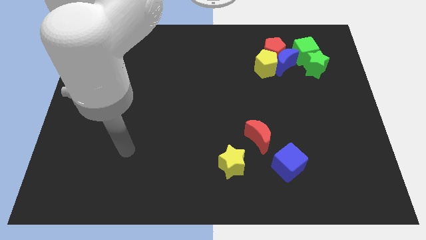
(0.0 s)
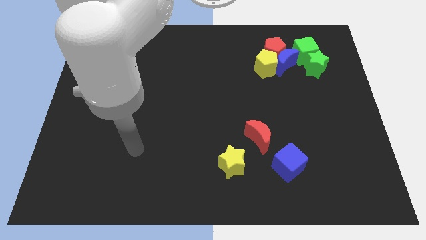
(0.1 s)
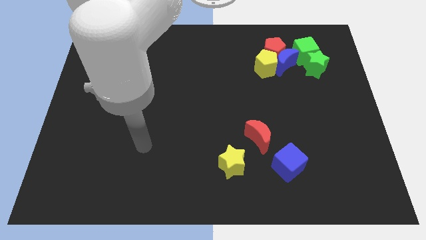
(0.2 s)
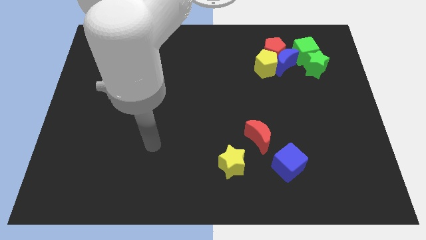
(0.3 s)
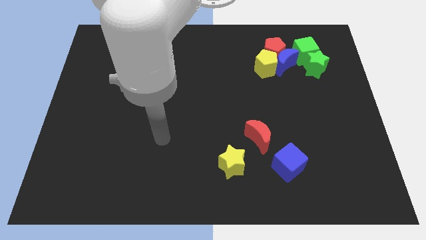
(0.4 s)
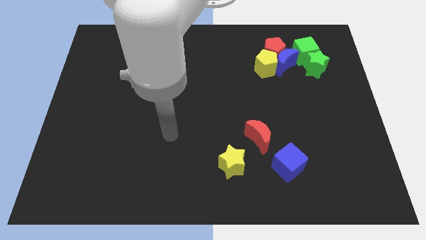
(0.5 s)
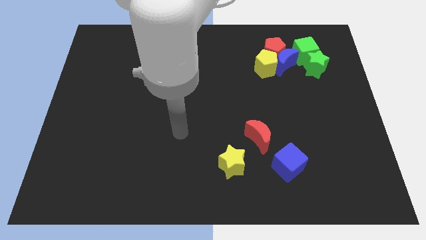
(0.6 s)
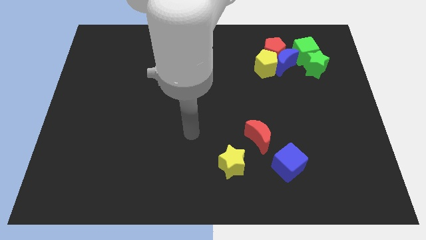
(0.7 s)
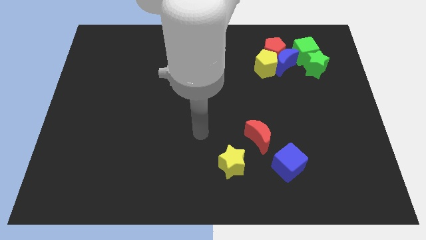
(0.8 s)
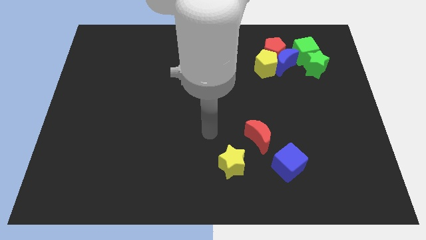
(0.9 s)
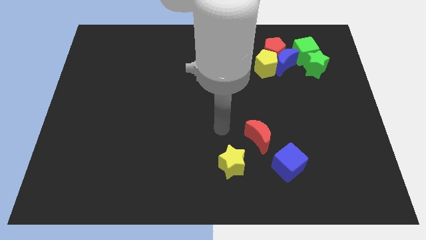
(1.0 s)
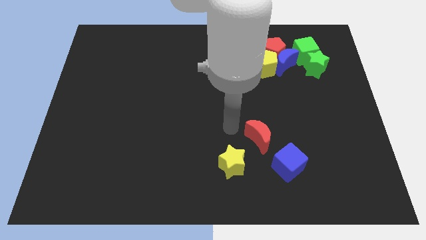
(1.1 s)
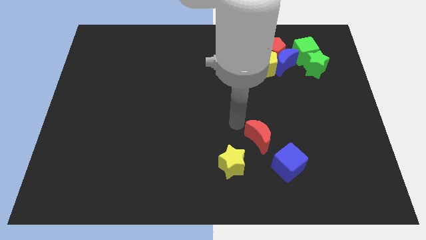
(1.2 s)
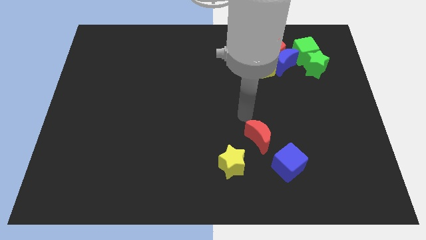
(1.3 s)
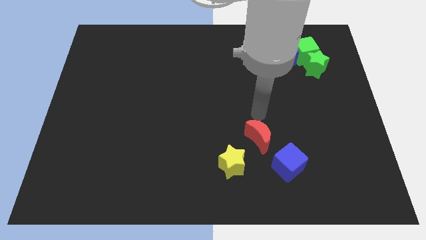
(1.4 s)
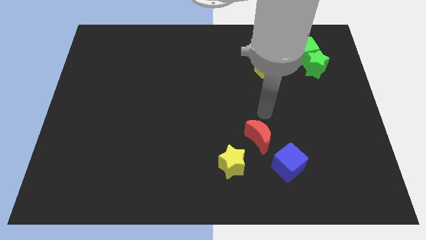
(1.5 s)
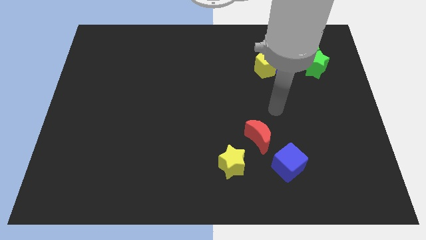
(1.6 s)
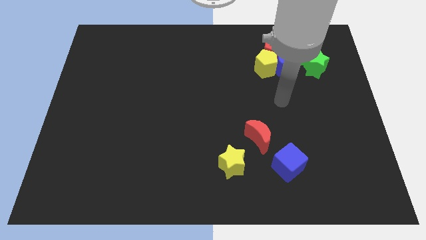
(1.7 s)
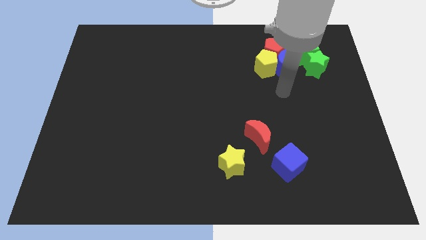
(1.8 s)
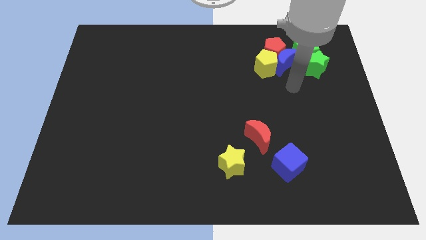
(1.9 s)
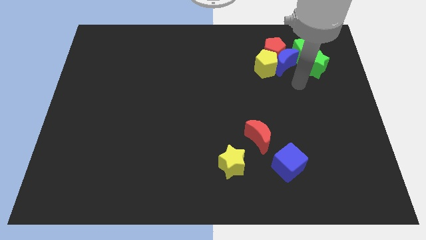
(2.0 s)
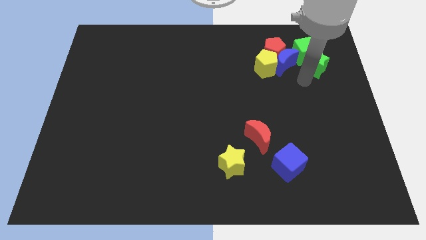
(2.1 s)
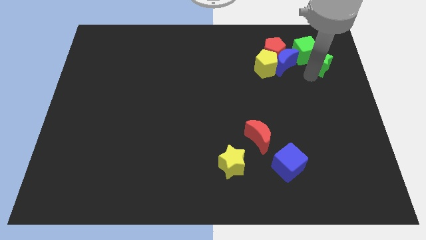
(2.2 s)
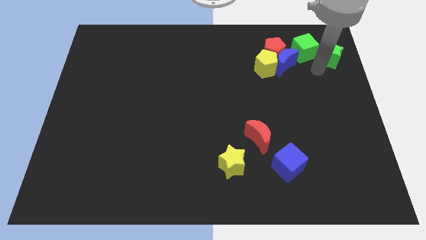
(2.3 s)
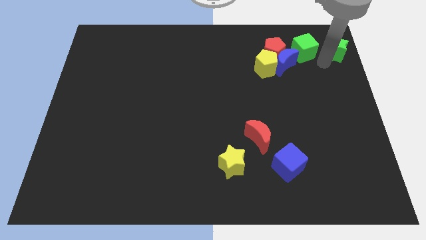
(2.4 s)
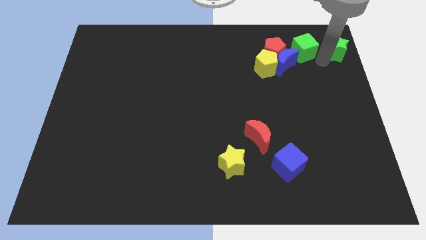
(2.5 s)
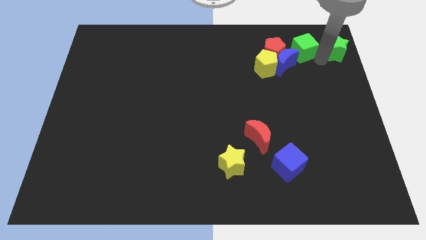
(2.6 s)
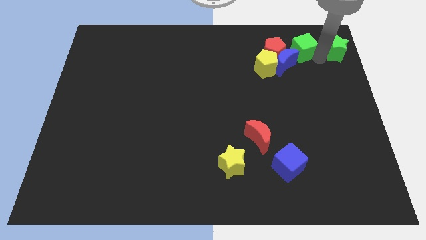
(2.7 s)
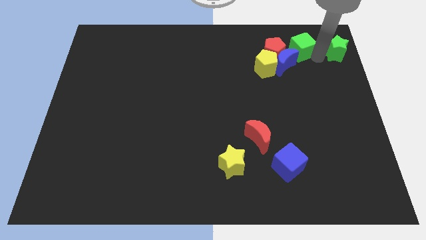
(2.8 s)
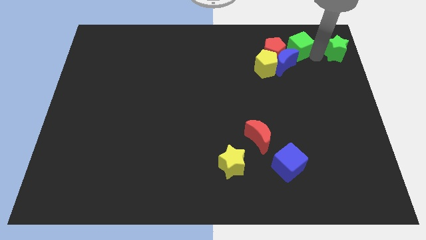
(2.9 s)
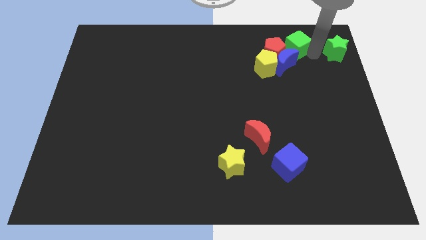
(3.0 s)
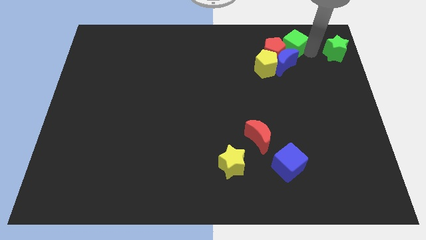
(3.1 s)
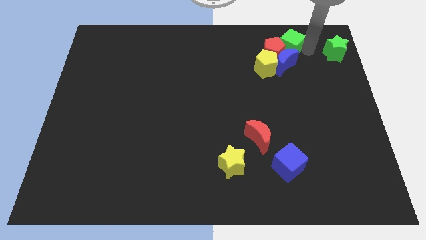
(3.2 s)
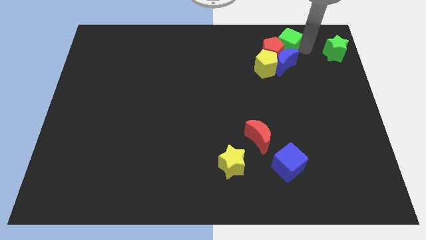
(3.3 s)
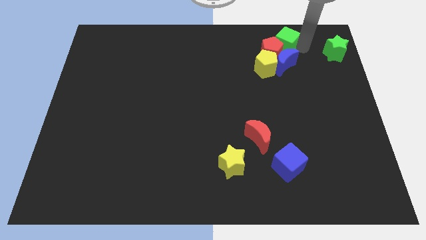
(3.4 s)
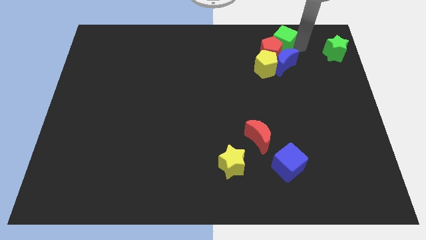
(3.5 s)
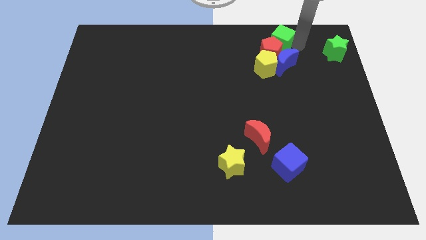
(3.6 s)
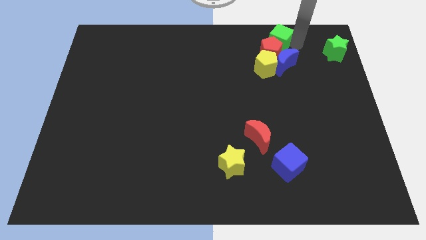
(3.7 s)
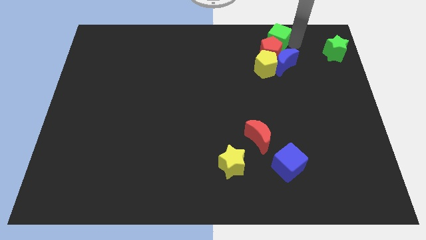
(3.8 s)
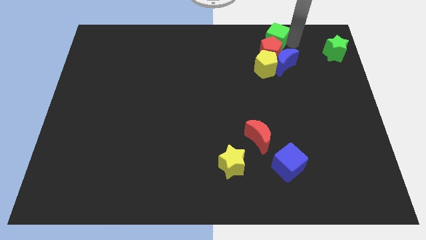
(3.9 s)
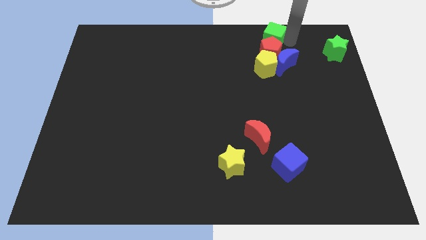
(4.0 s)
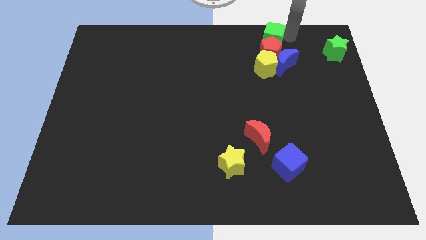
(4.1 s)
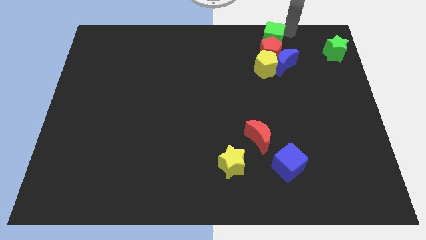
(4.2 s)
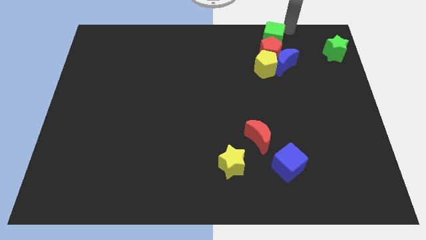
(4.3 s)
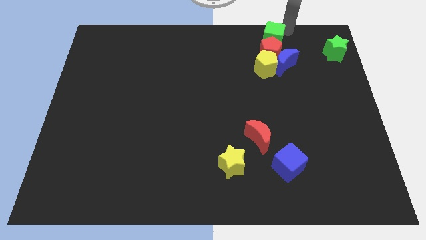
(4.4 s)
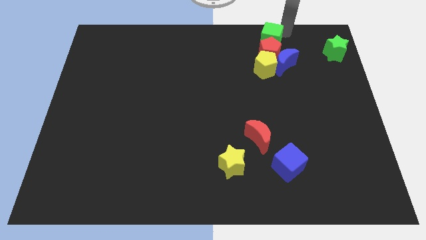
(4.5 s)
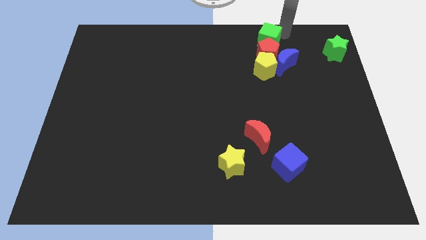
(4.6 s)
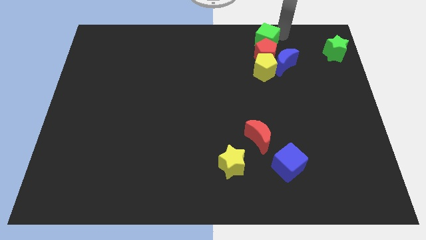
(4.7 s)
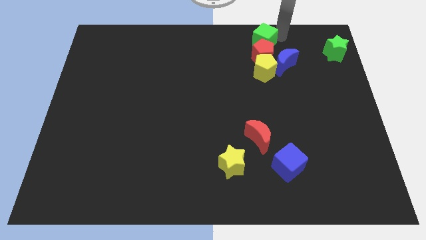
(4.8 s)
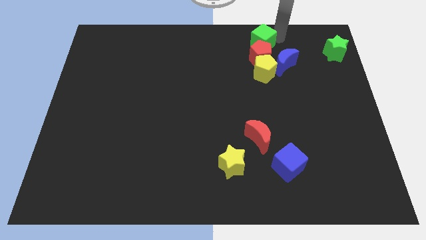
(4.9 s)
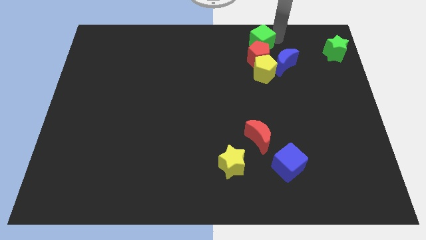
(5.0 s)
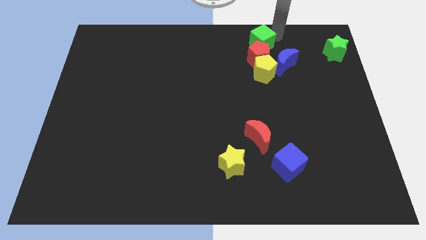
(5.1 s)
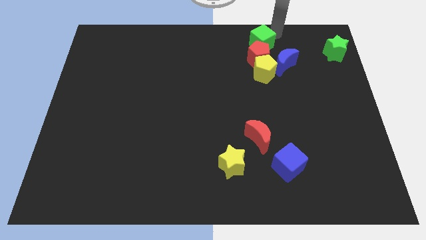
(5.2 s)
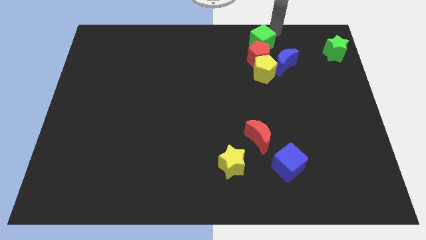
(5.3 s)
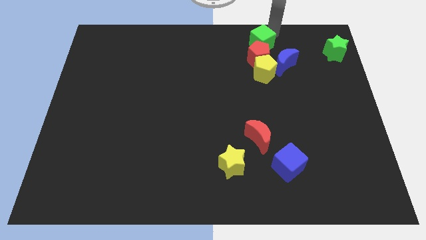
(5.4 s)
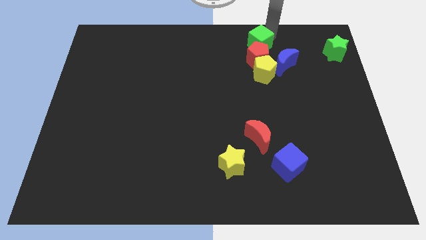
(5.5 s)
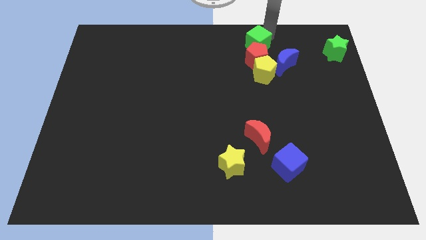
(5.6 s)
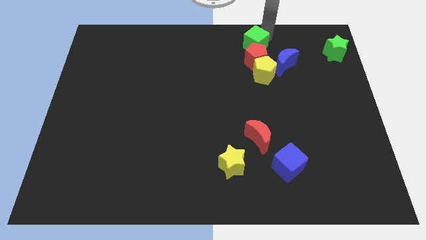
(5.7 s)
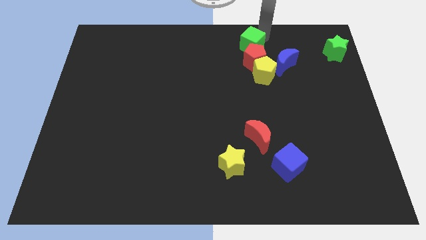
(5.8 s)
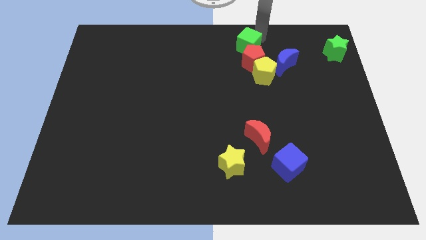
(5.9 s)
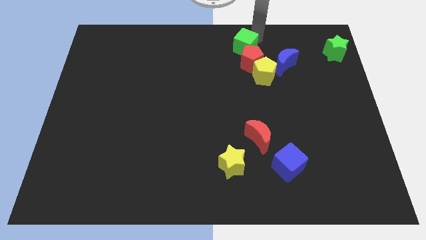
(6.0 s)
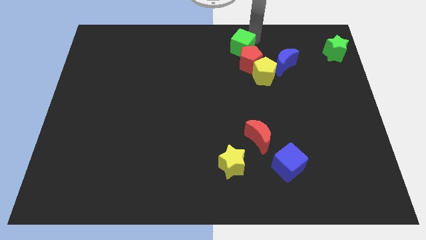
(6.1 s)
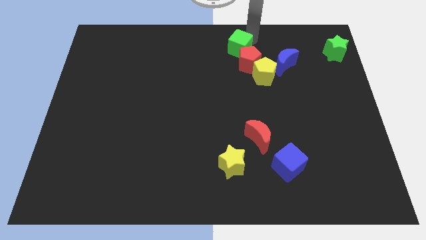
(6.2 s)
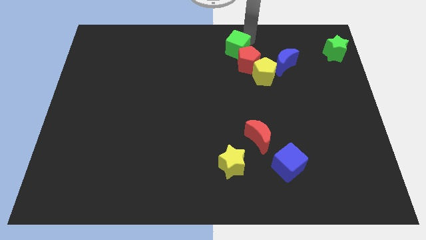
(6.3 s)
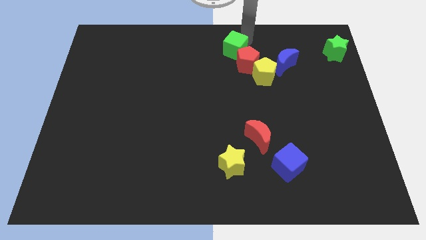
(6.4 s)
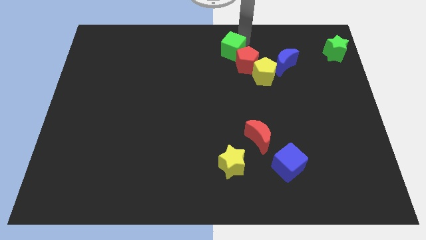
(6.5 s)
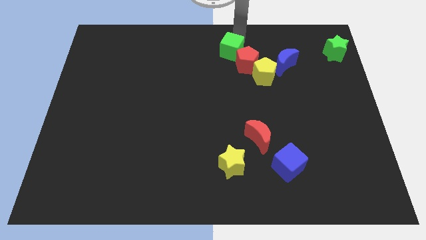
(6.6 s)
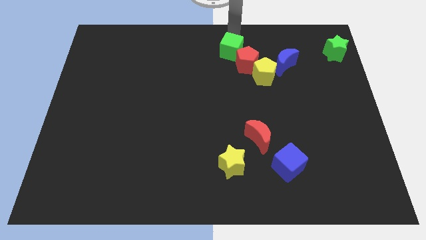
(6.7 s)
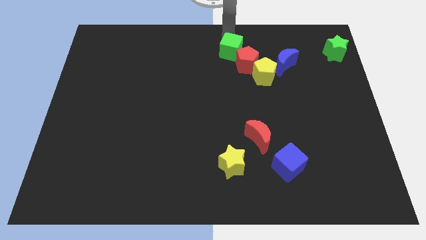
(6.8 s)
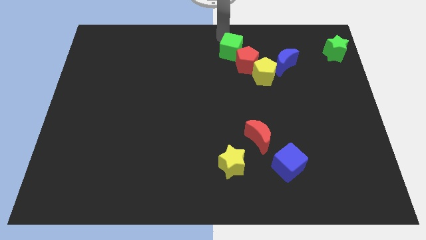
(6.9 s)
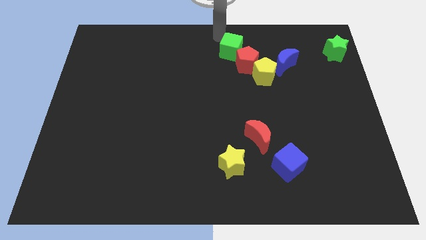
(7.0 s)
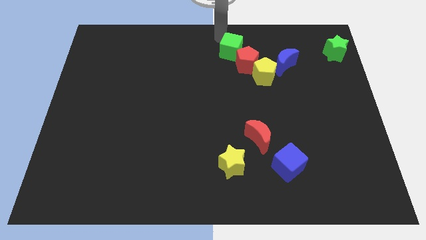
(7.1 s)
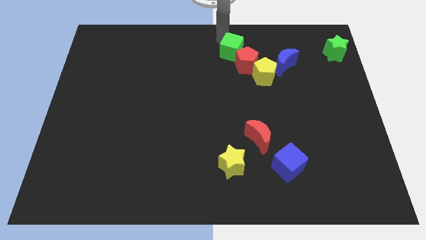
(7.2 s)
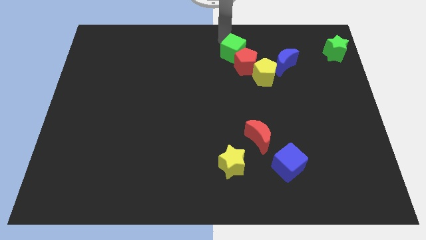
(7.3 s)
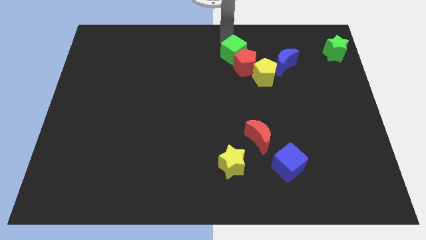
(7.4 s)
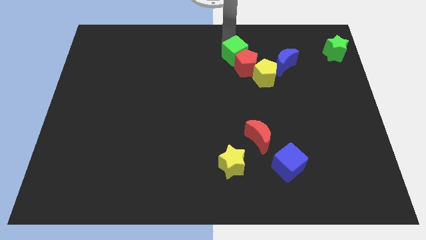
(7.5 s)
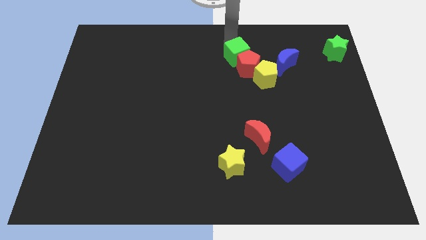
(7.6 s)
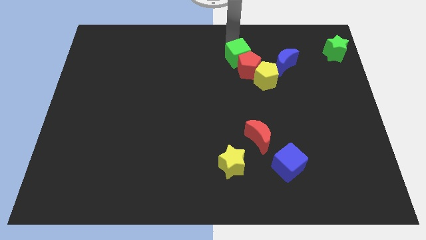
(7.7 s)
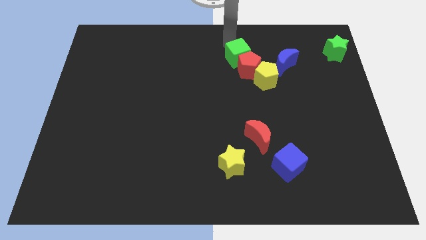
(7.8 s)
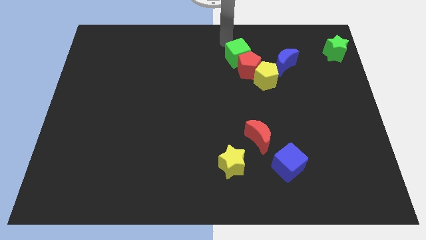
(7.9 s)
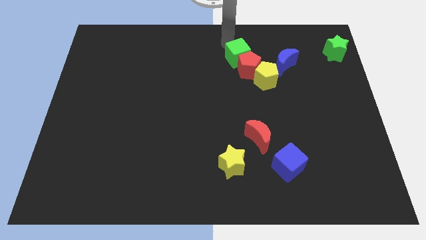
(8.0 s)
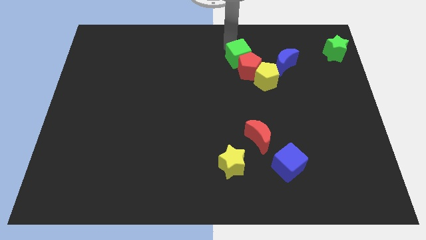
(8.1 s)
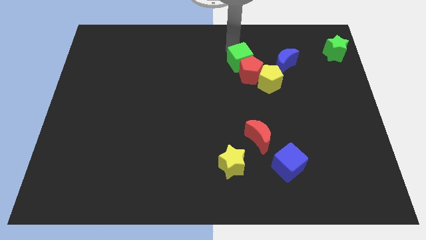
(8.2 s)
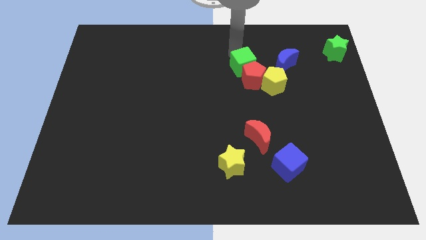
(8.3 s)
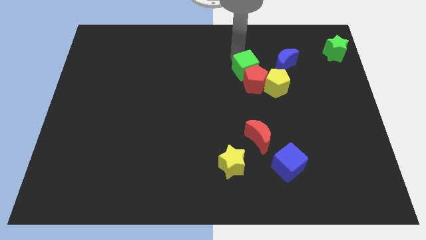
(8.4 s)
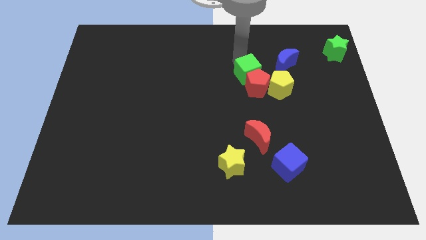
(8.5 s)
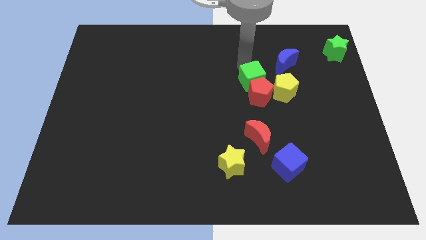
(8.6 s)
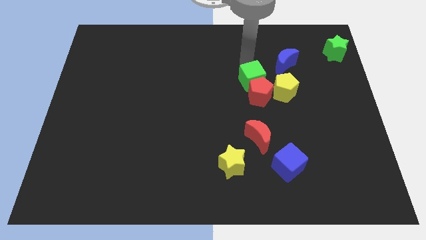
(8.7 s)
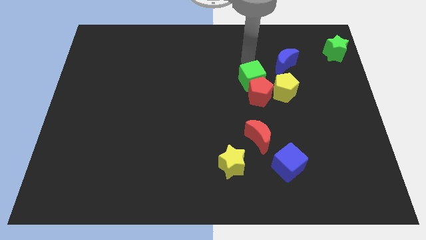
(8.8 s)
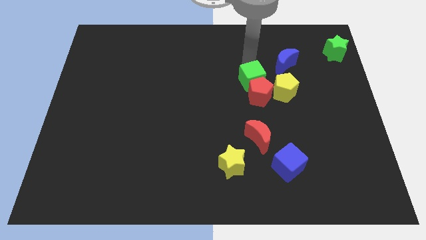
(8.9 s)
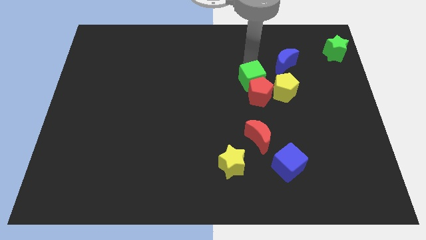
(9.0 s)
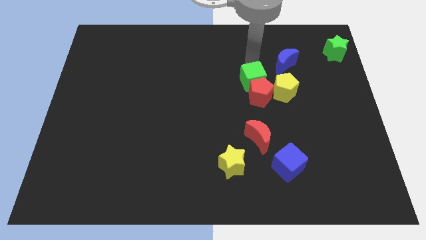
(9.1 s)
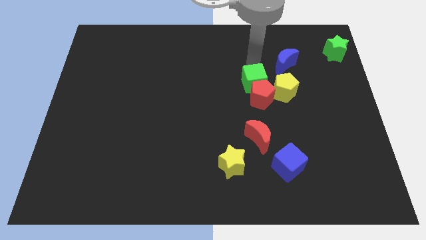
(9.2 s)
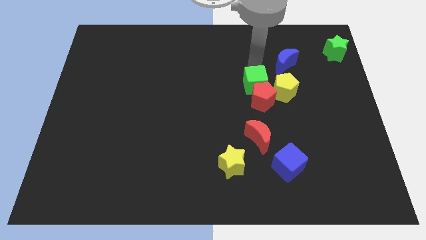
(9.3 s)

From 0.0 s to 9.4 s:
move the green cube to the top side of the red moon
